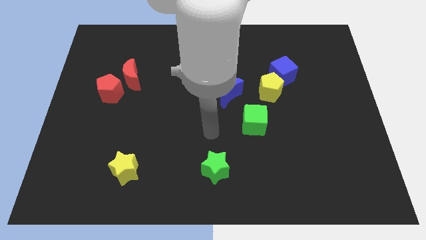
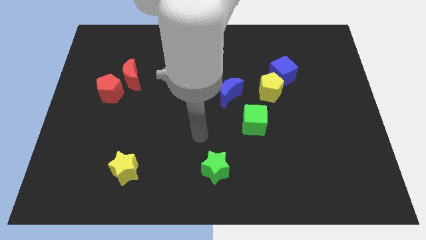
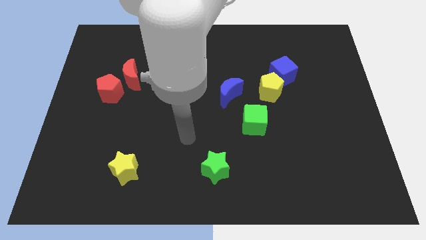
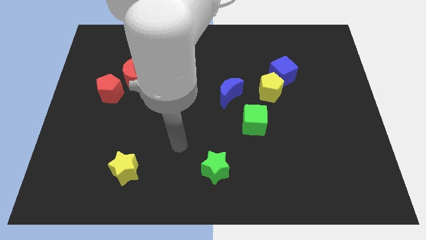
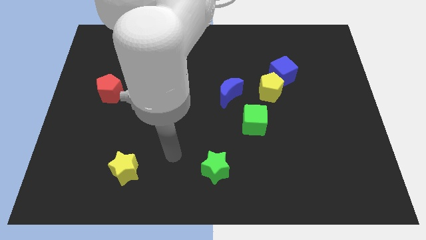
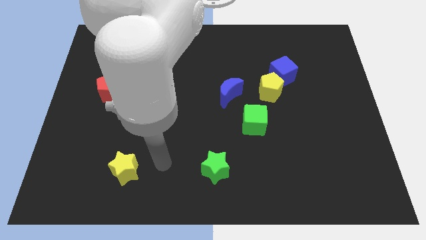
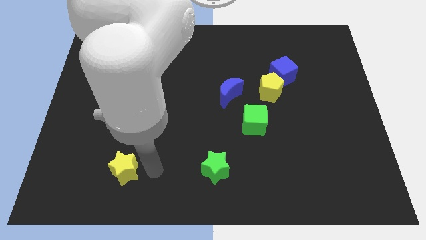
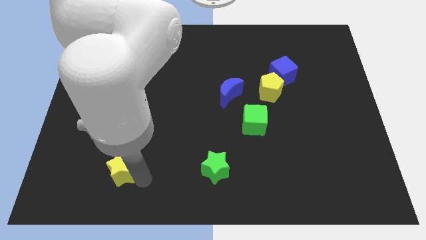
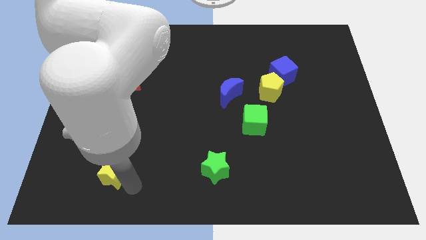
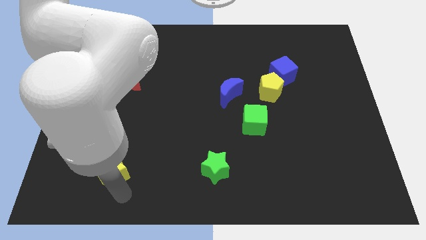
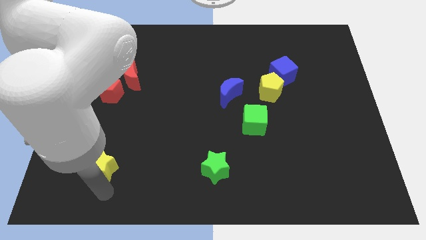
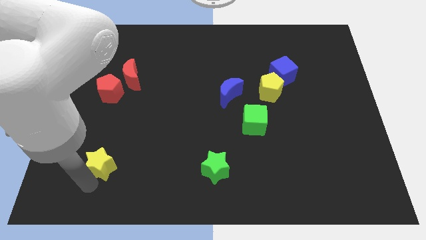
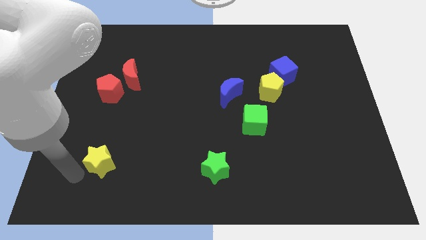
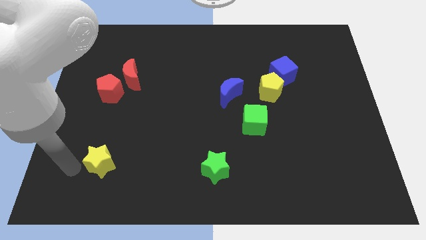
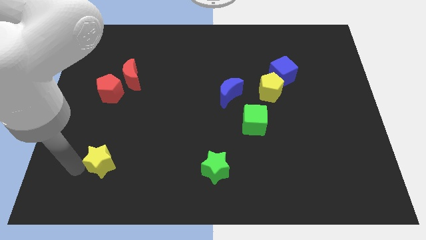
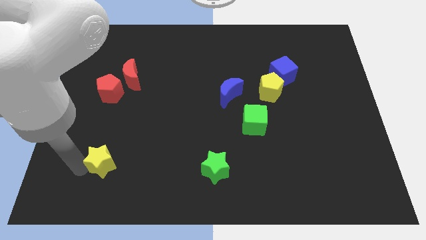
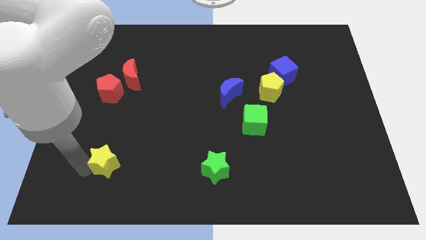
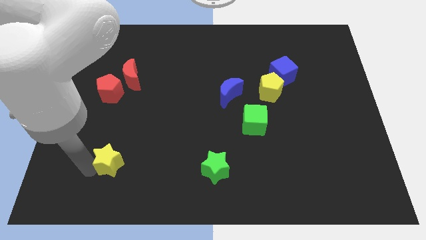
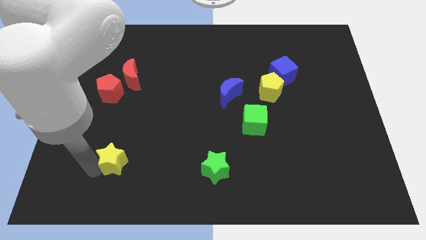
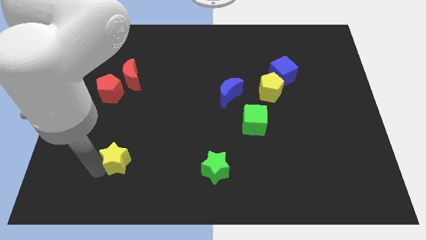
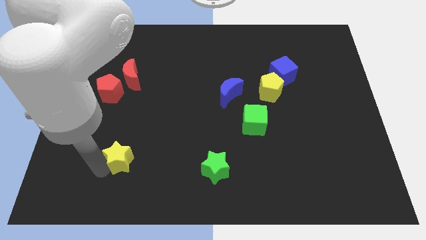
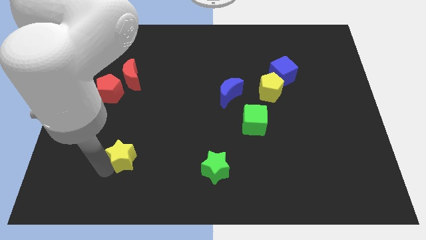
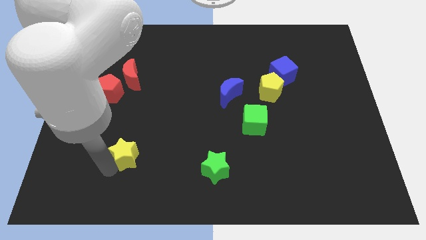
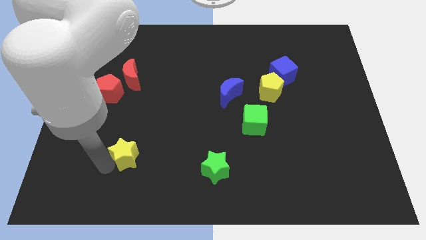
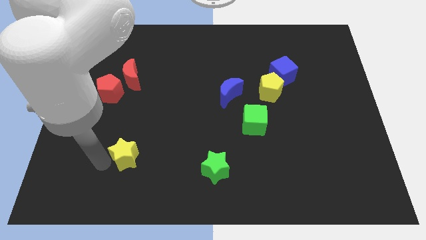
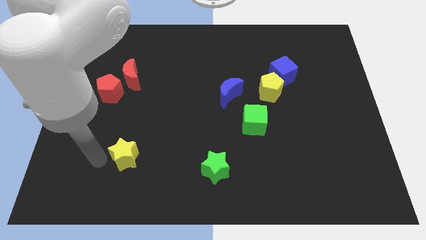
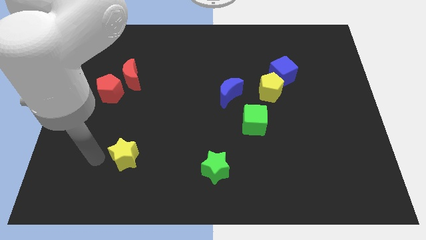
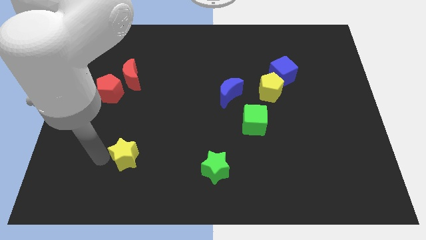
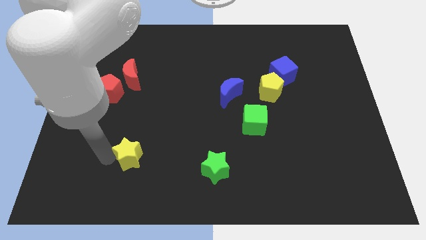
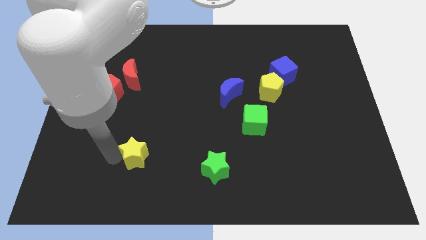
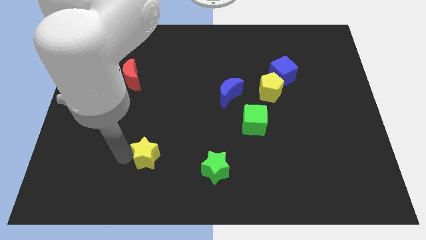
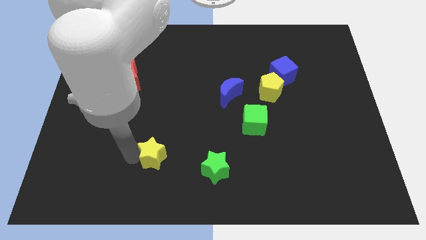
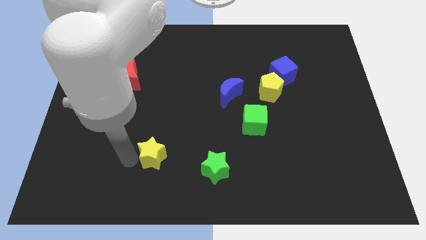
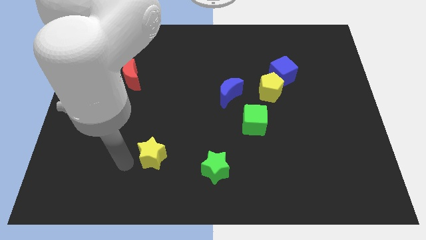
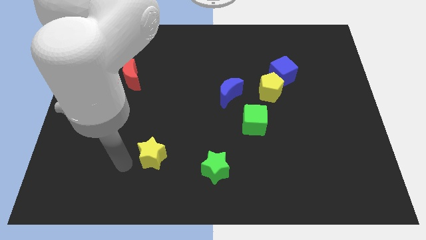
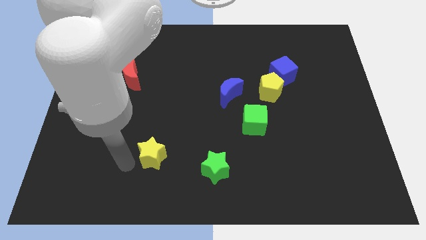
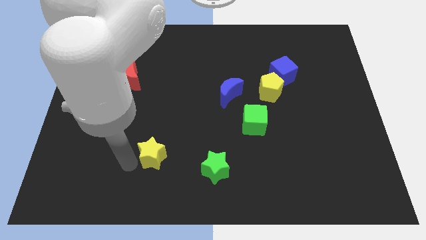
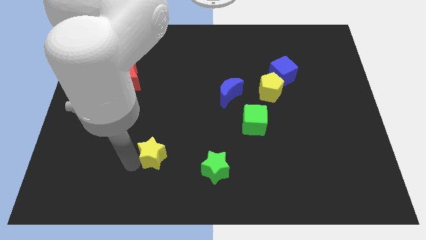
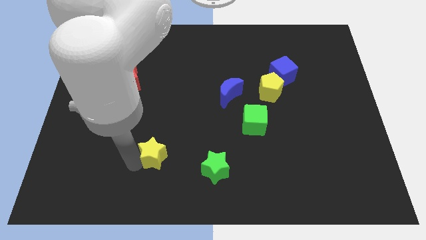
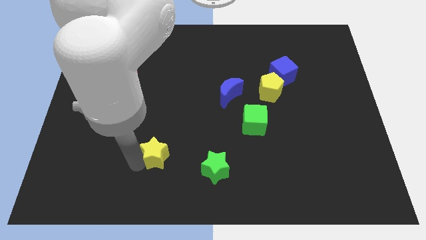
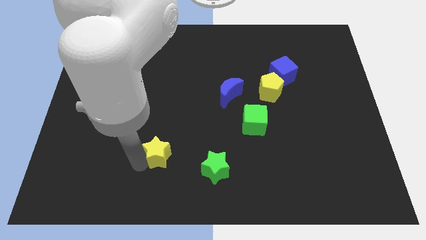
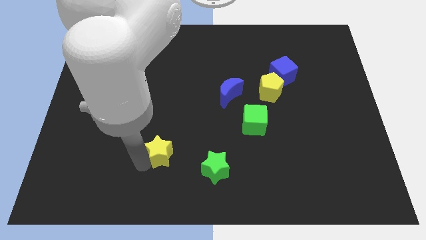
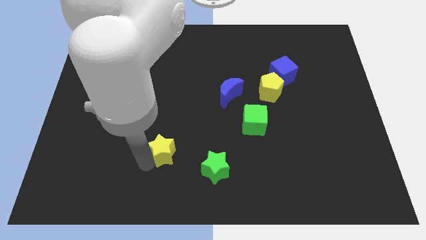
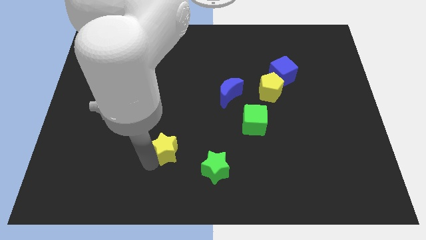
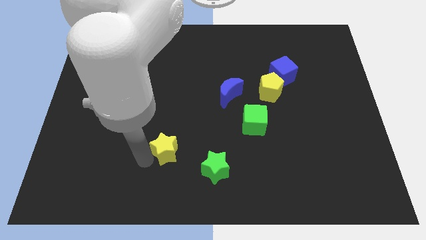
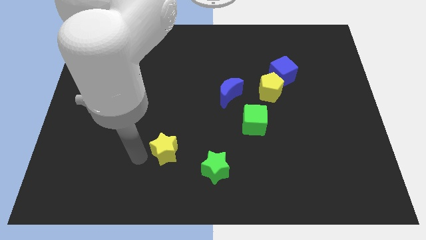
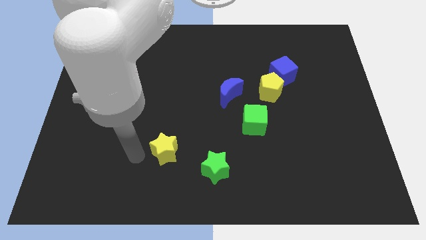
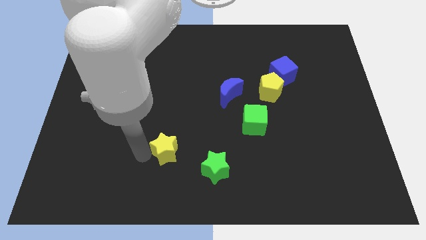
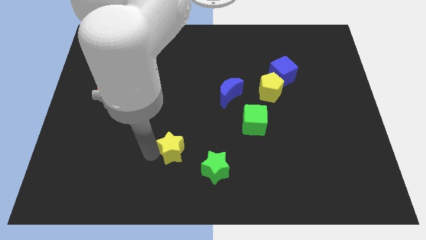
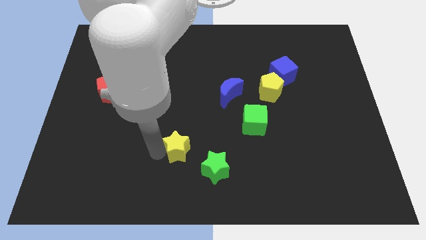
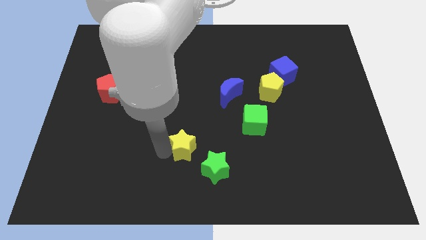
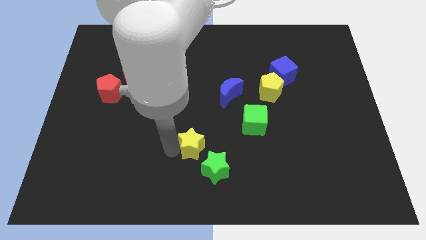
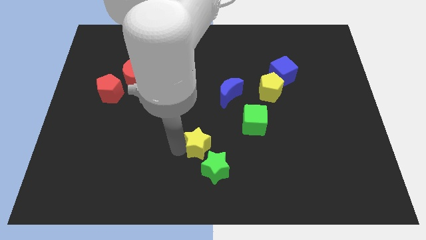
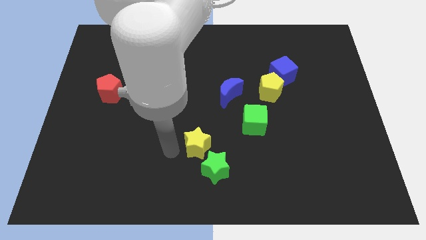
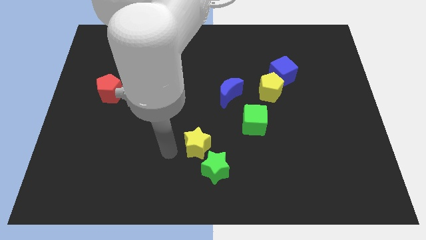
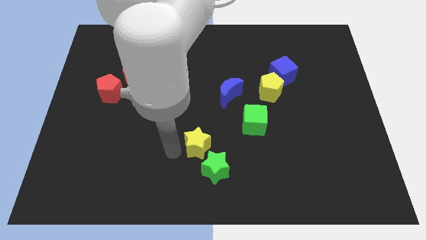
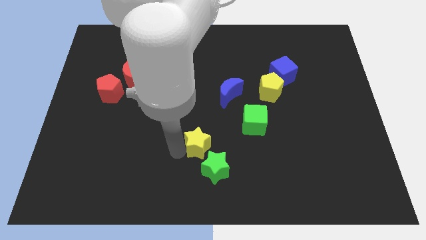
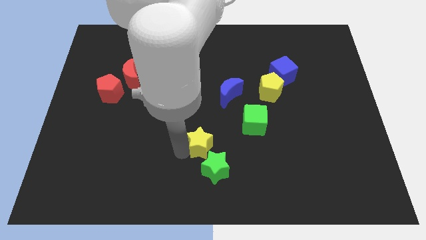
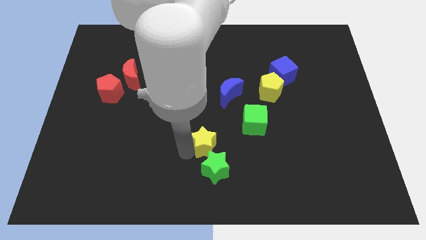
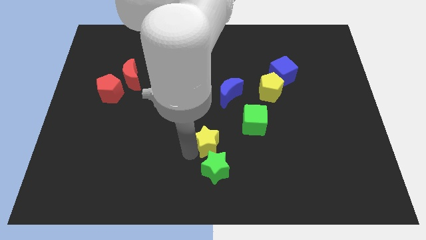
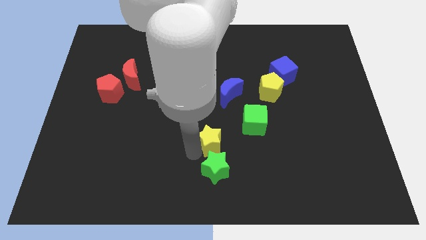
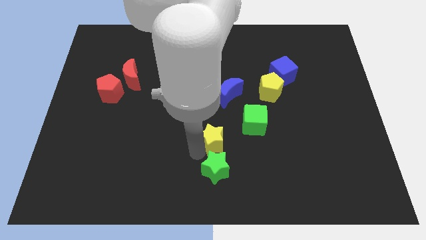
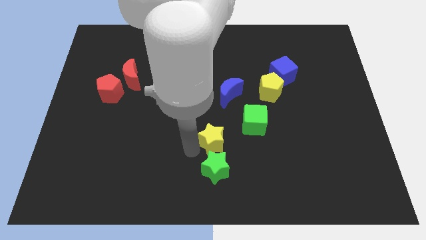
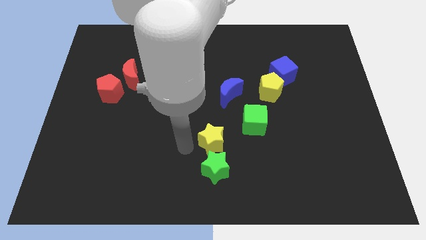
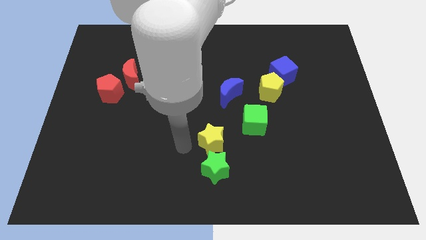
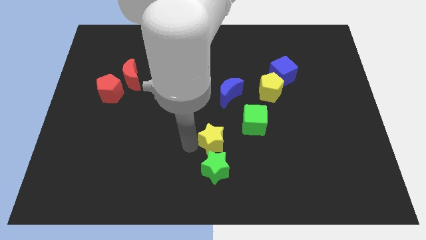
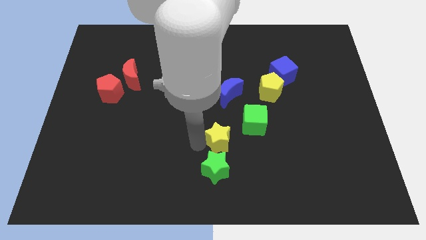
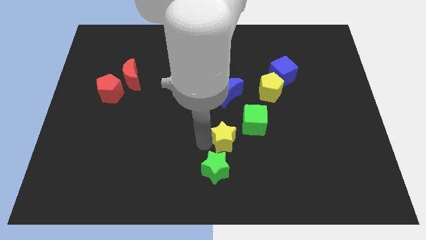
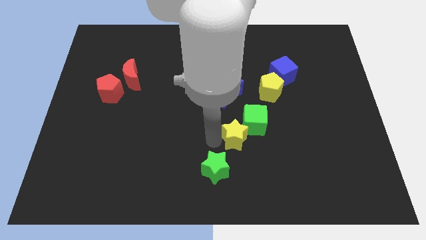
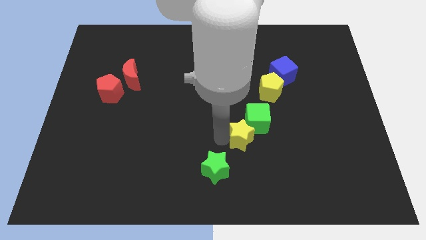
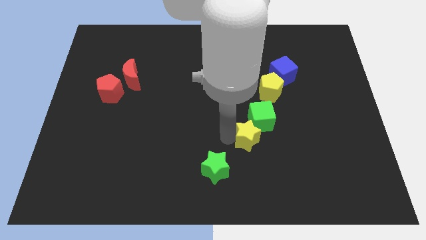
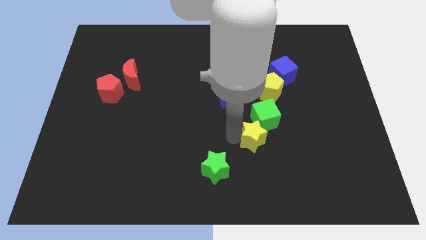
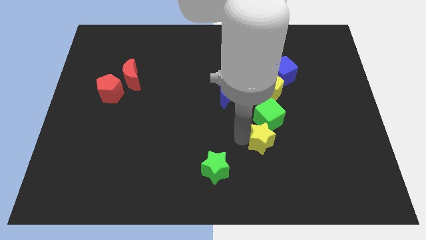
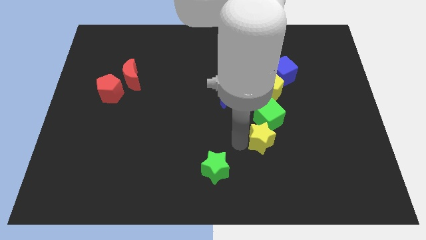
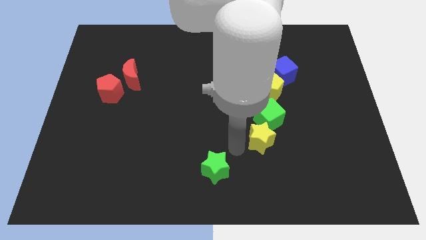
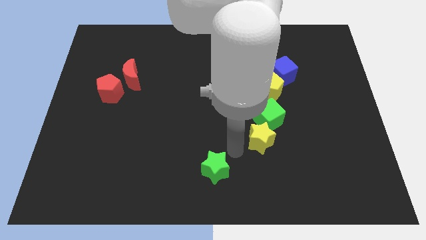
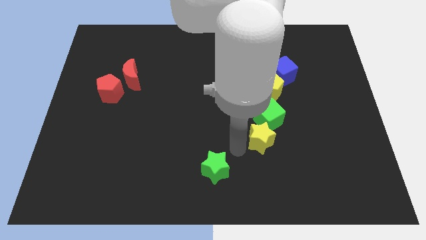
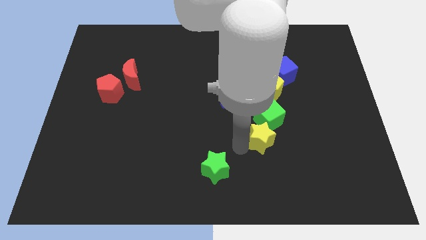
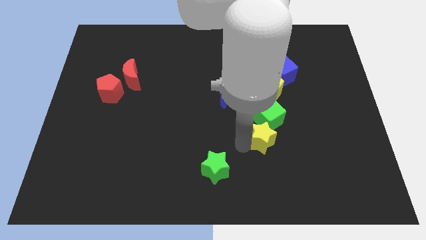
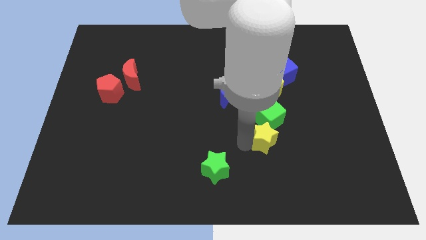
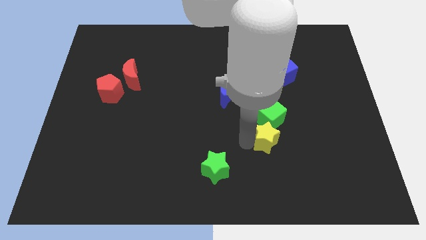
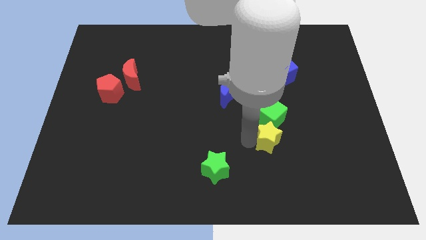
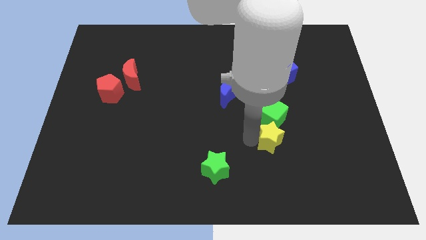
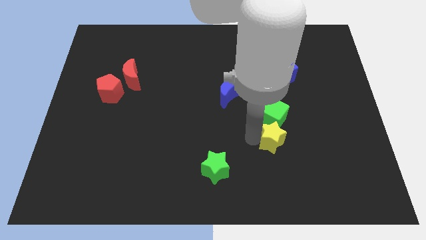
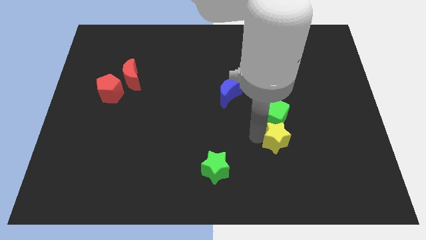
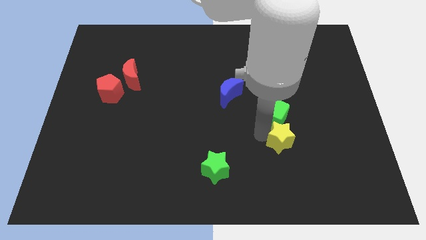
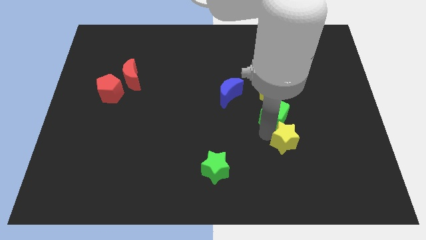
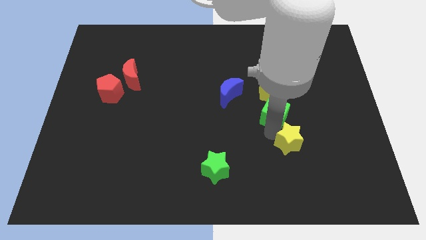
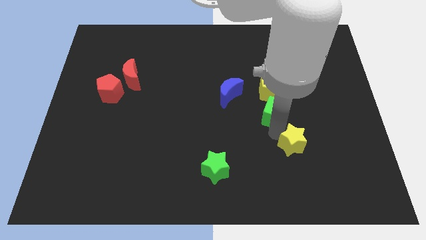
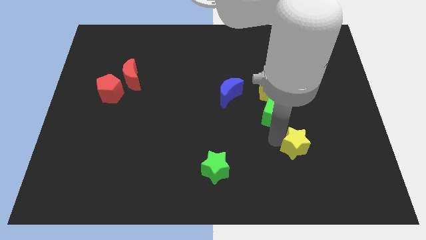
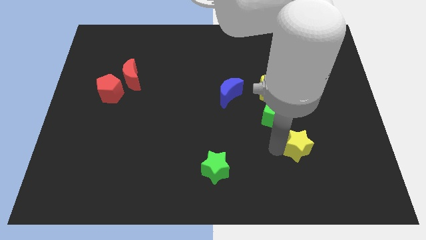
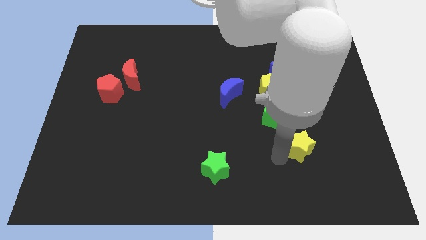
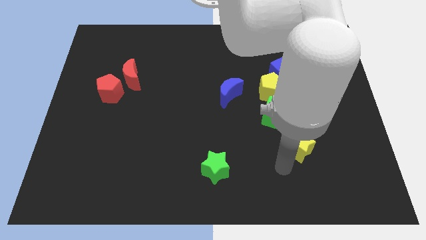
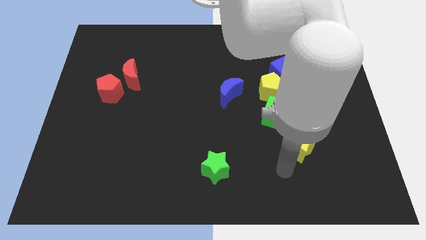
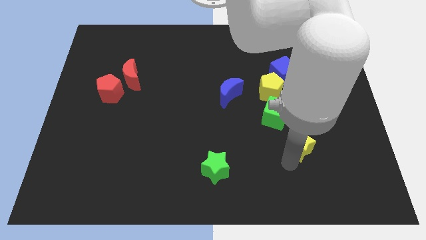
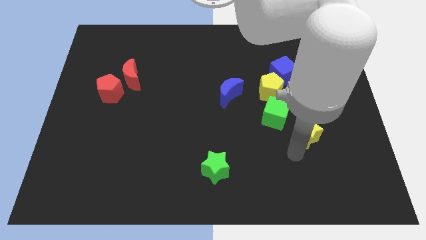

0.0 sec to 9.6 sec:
move the yellow star right of the green cube
